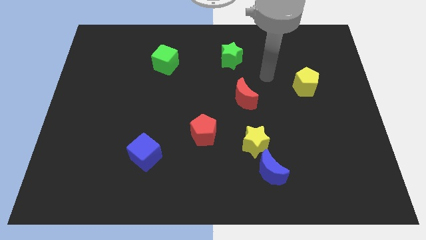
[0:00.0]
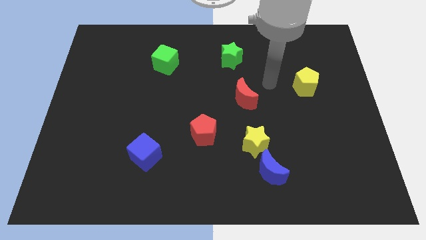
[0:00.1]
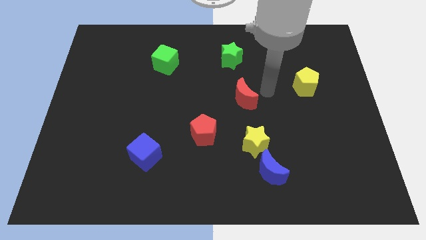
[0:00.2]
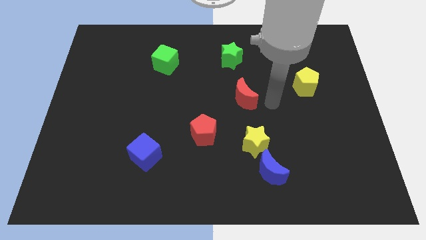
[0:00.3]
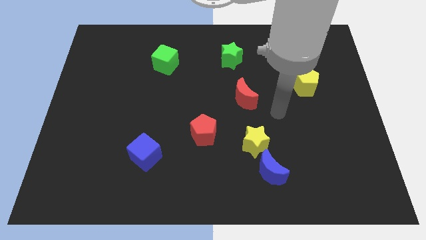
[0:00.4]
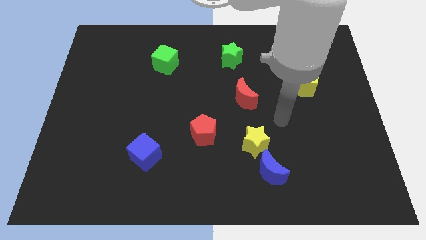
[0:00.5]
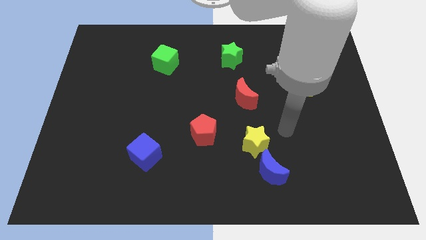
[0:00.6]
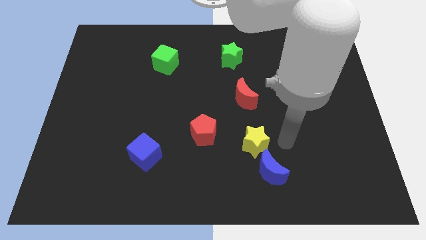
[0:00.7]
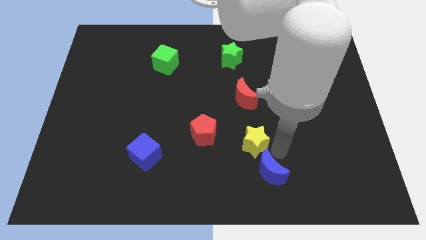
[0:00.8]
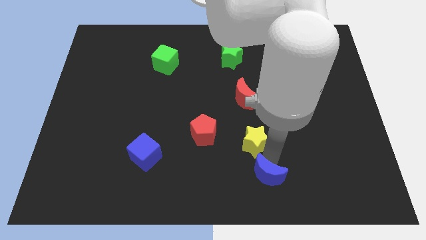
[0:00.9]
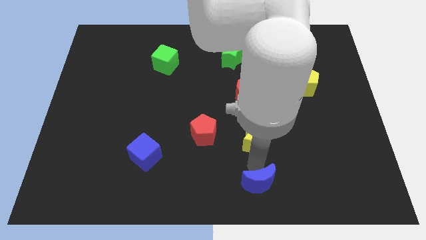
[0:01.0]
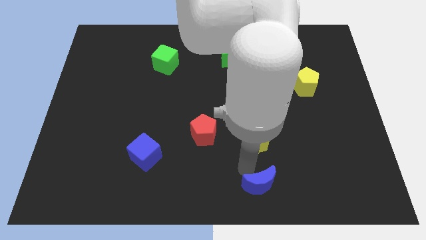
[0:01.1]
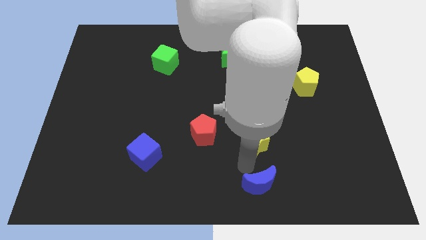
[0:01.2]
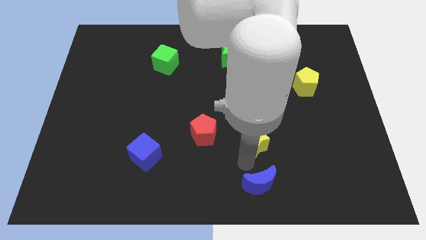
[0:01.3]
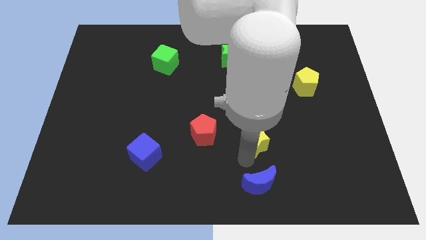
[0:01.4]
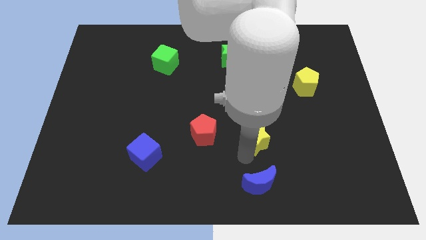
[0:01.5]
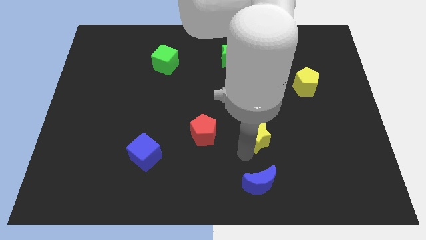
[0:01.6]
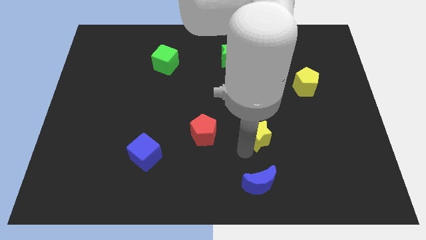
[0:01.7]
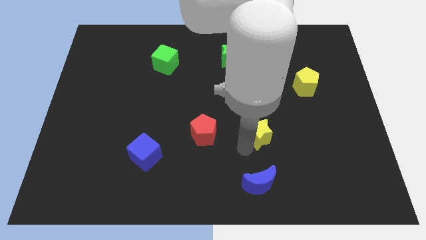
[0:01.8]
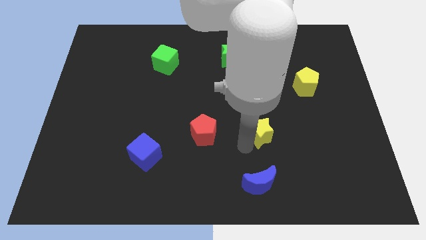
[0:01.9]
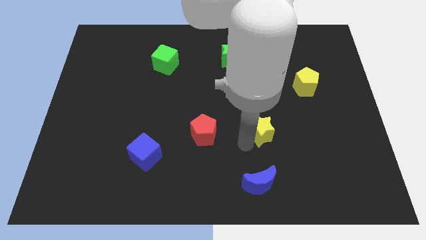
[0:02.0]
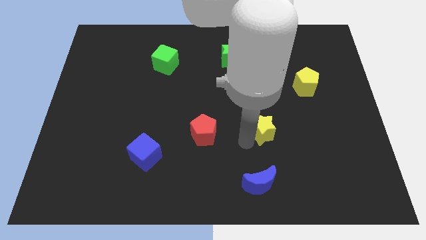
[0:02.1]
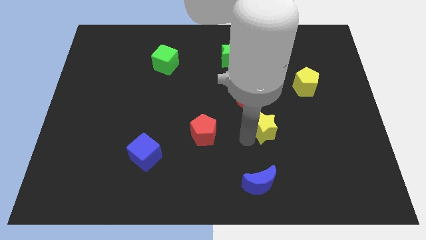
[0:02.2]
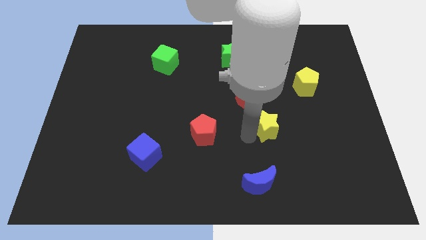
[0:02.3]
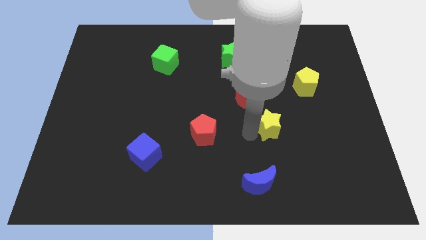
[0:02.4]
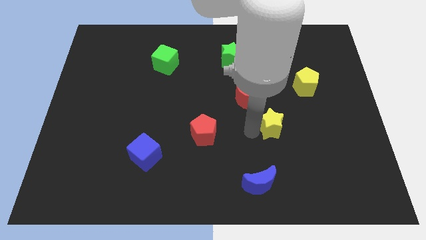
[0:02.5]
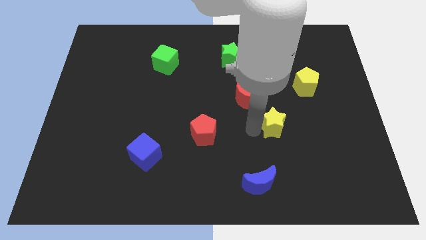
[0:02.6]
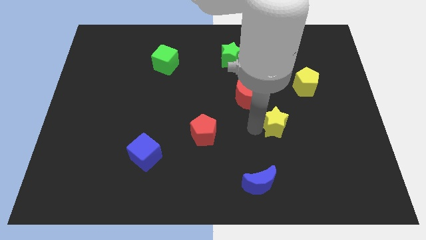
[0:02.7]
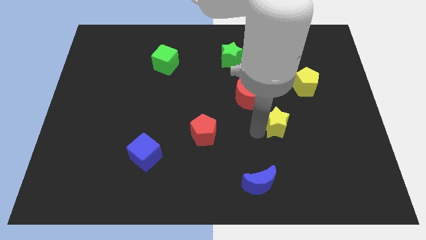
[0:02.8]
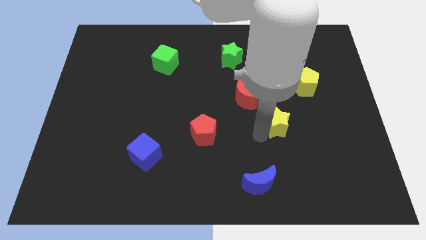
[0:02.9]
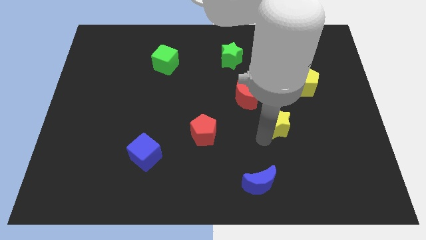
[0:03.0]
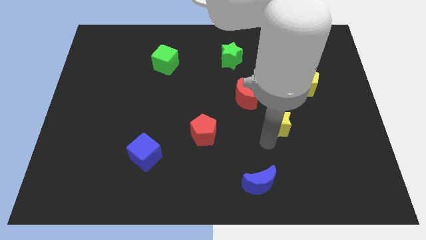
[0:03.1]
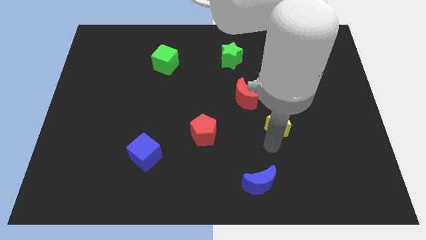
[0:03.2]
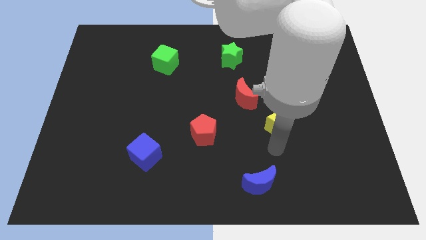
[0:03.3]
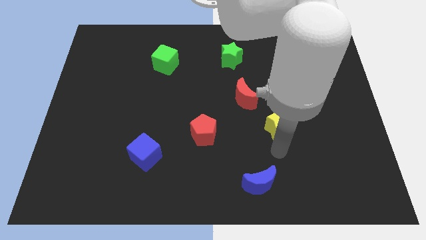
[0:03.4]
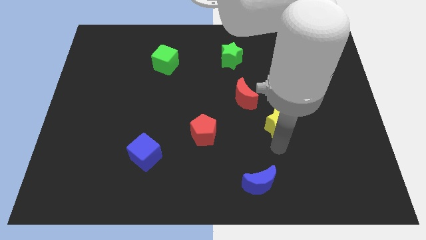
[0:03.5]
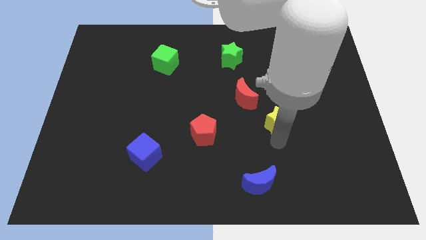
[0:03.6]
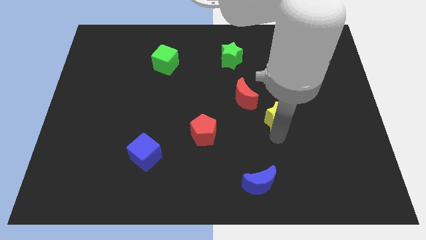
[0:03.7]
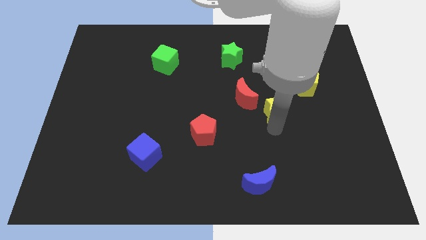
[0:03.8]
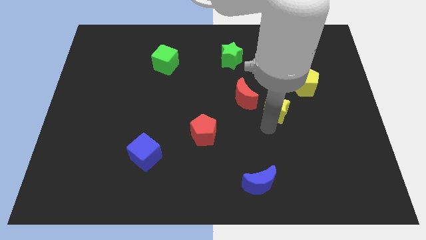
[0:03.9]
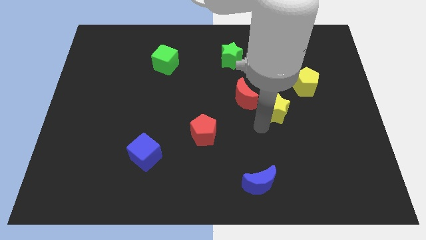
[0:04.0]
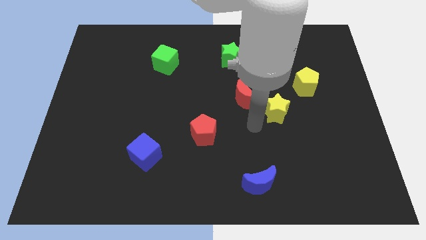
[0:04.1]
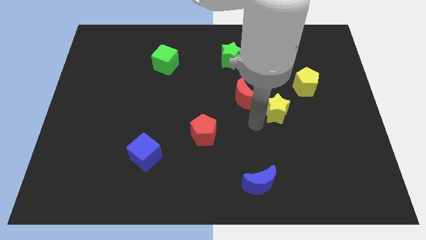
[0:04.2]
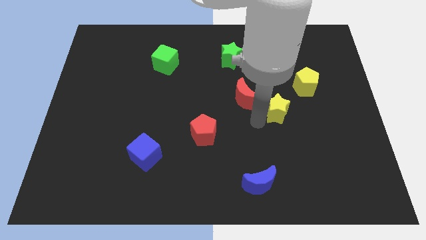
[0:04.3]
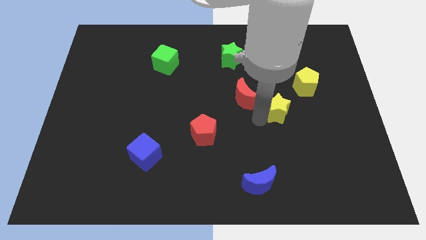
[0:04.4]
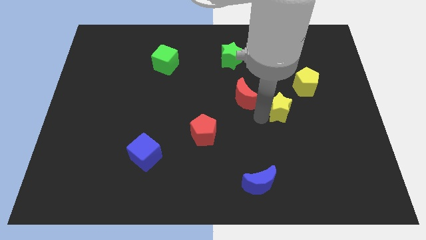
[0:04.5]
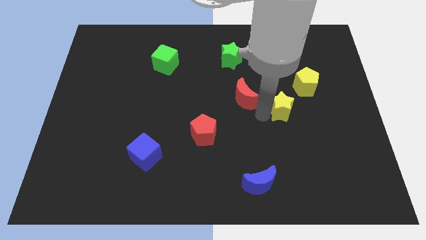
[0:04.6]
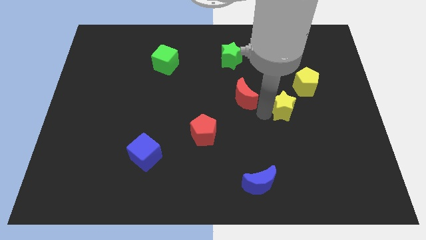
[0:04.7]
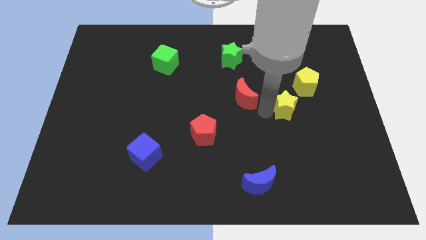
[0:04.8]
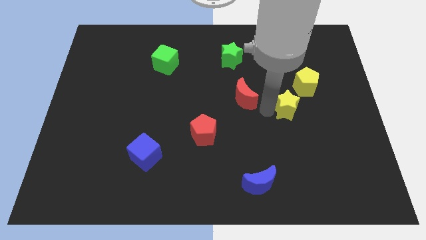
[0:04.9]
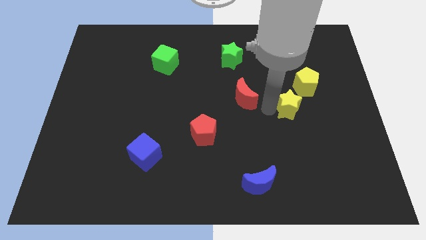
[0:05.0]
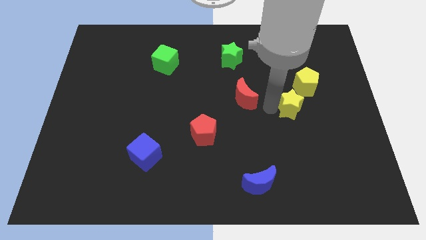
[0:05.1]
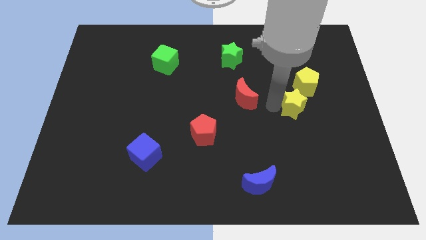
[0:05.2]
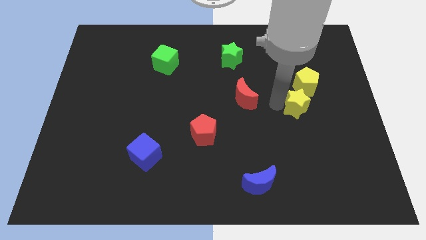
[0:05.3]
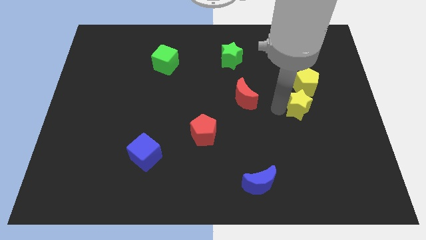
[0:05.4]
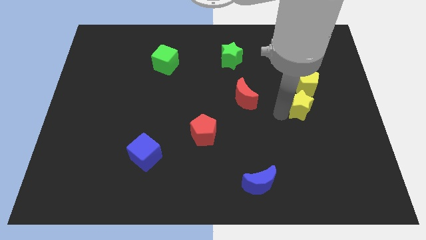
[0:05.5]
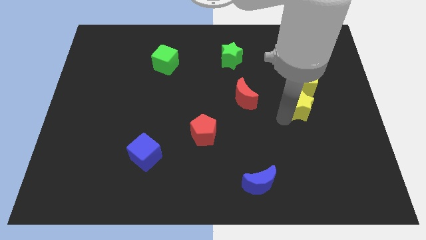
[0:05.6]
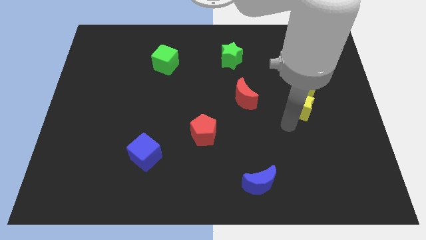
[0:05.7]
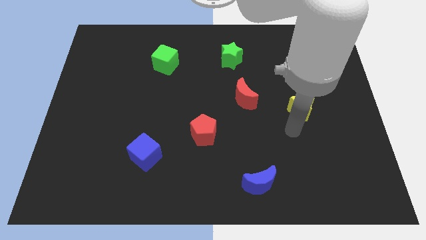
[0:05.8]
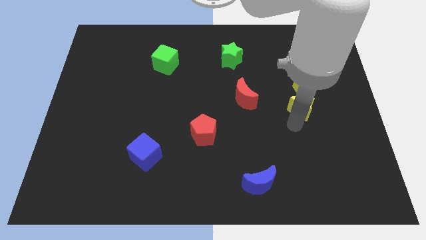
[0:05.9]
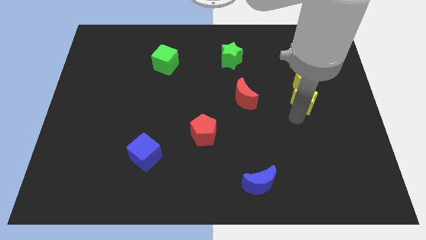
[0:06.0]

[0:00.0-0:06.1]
slide the yellow star close to the yellow pentagon

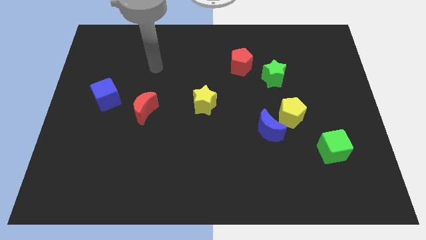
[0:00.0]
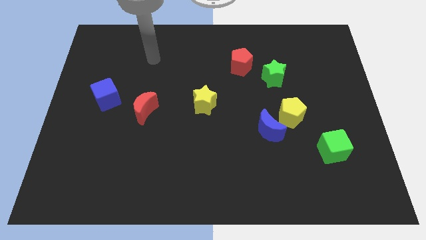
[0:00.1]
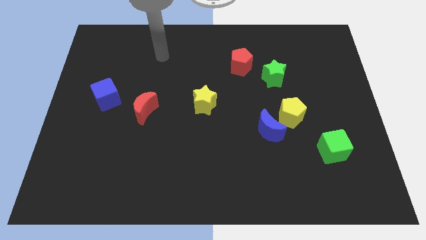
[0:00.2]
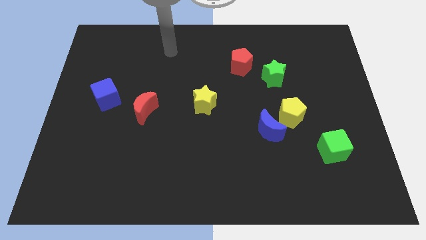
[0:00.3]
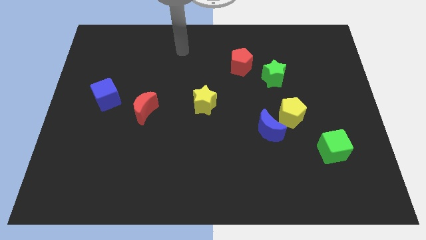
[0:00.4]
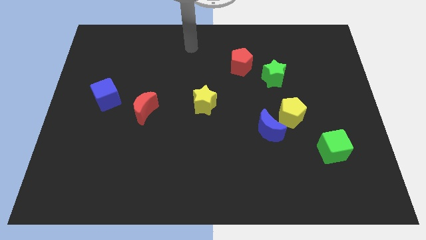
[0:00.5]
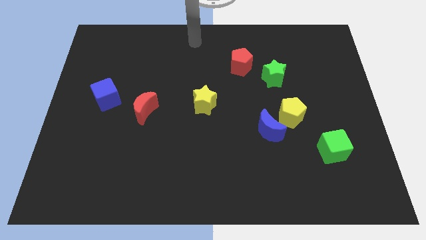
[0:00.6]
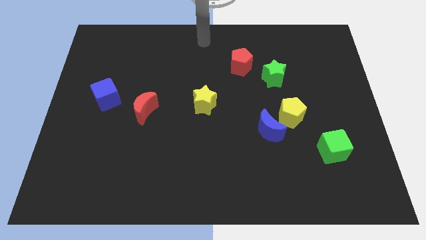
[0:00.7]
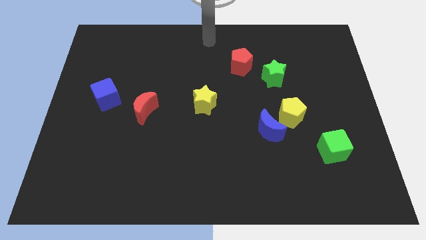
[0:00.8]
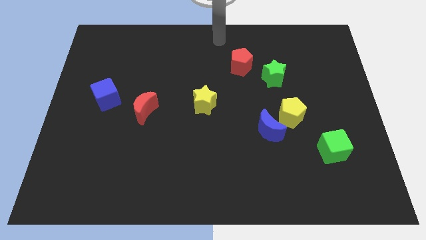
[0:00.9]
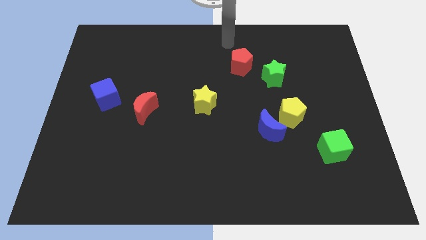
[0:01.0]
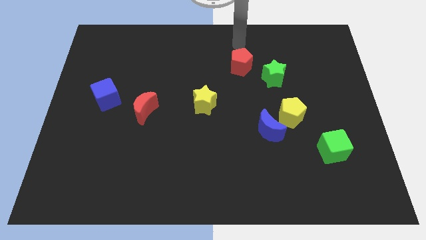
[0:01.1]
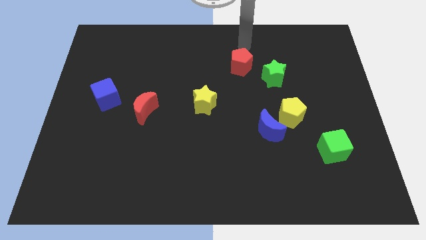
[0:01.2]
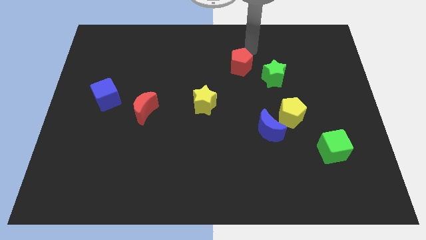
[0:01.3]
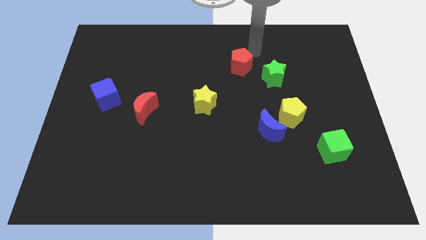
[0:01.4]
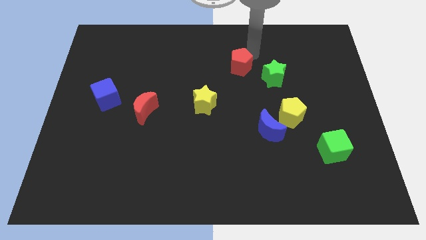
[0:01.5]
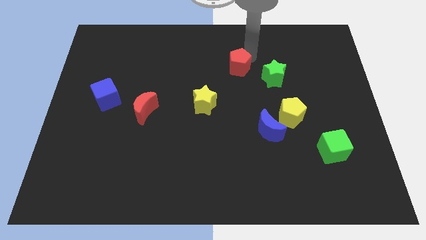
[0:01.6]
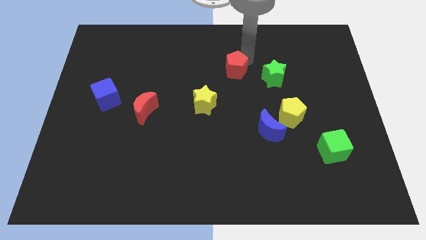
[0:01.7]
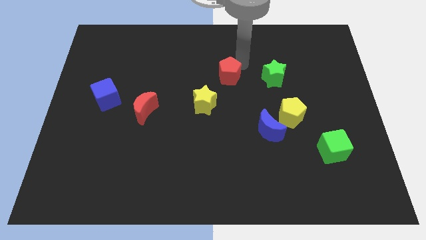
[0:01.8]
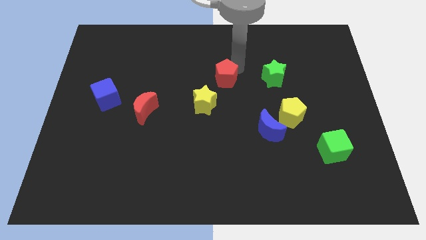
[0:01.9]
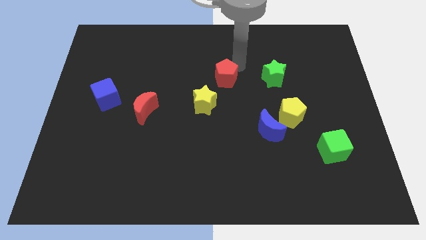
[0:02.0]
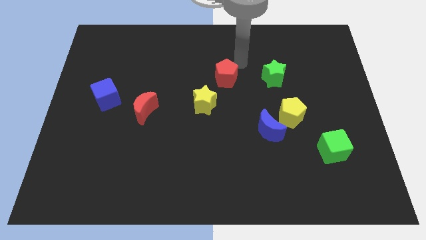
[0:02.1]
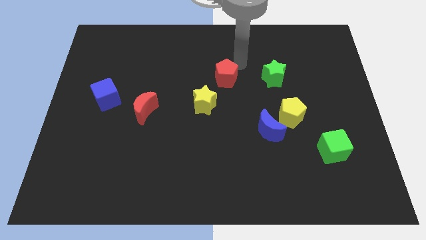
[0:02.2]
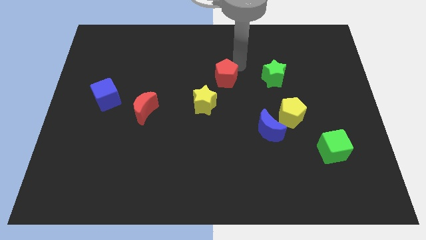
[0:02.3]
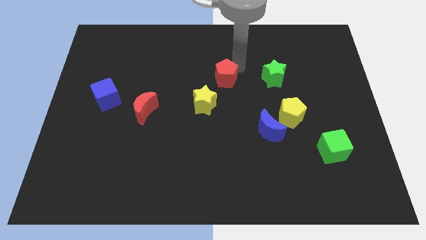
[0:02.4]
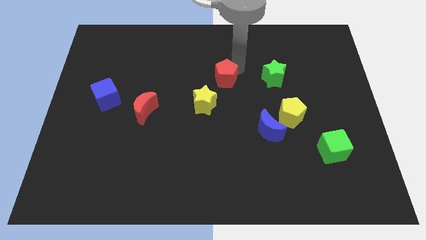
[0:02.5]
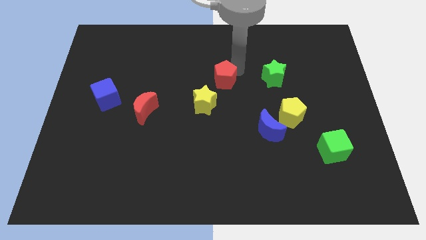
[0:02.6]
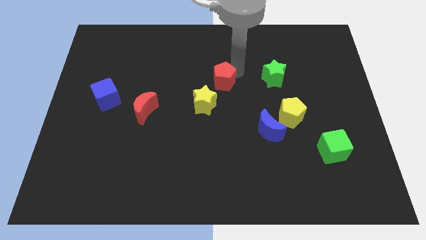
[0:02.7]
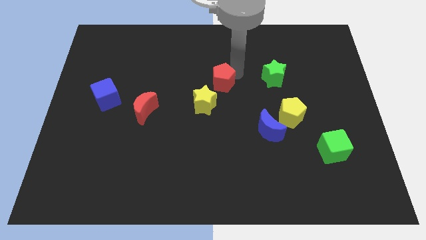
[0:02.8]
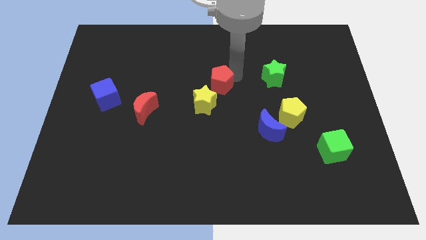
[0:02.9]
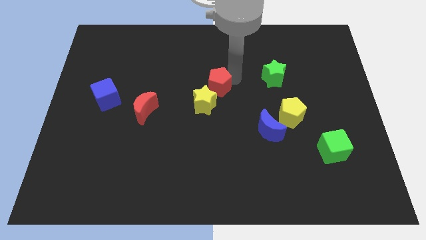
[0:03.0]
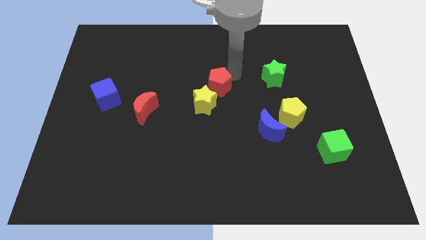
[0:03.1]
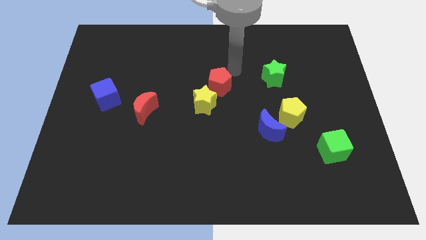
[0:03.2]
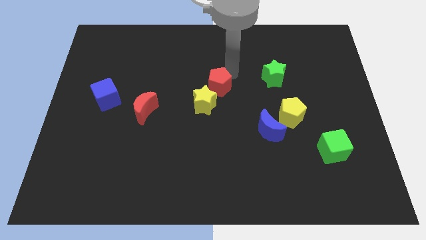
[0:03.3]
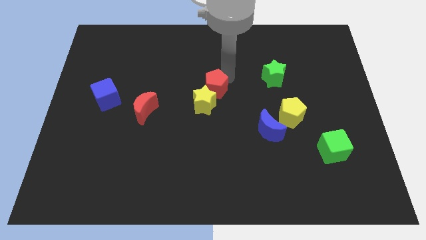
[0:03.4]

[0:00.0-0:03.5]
push the red pentagon to the yellow star
